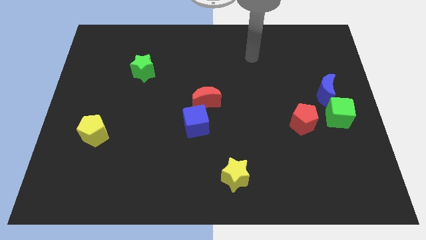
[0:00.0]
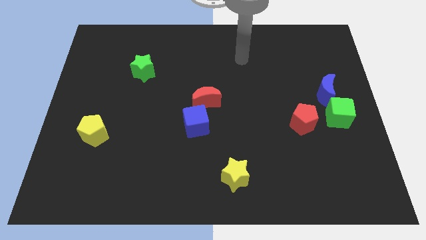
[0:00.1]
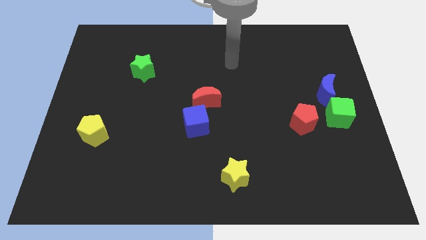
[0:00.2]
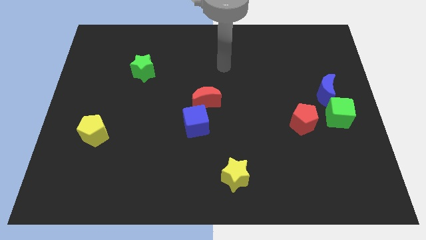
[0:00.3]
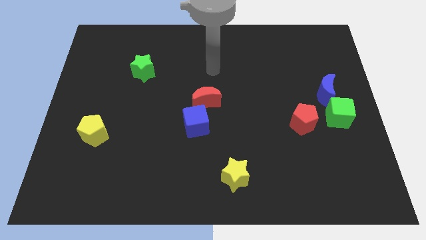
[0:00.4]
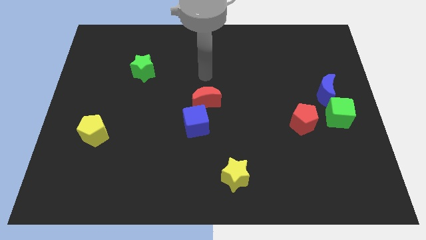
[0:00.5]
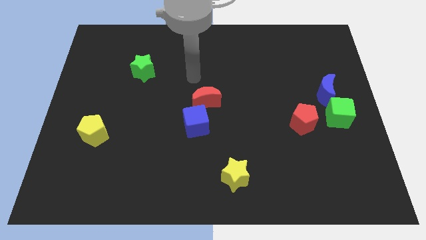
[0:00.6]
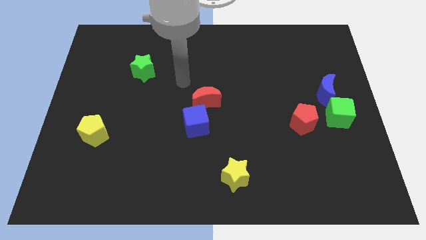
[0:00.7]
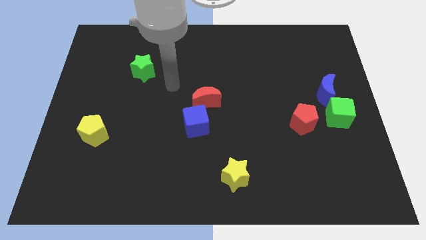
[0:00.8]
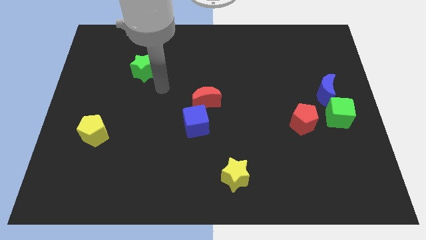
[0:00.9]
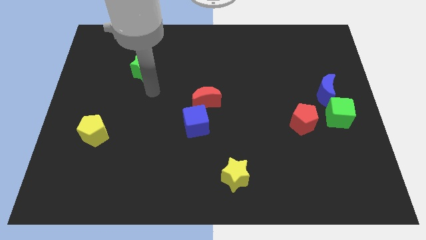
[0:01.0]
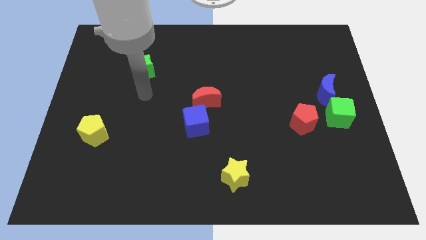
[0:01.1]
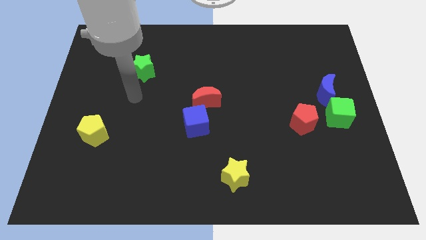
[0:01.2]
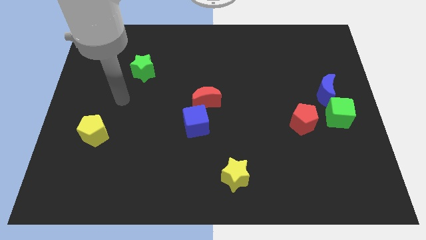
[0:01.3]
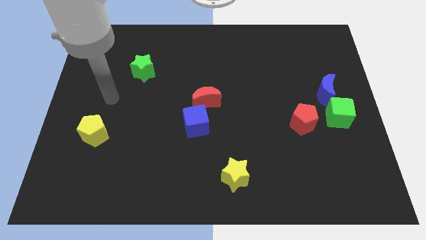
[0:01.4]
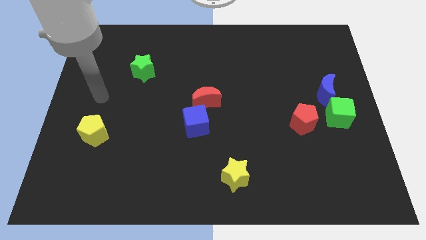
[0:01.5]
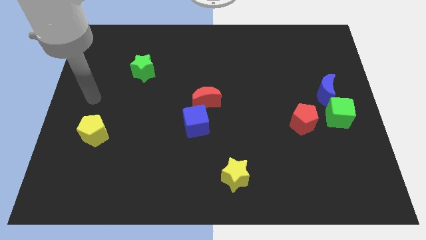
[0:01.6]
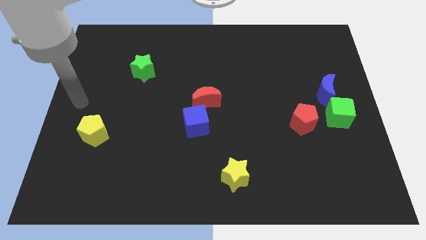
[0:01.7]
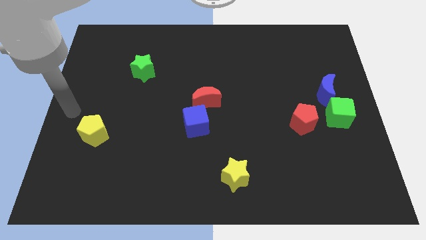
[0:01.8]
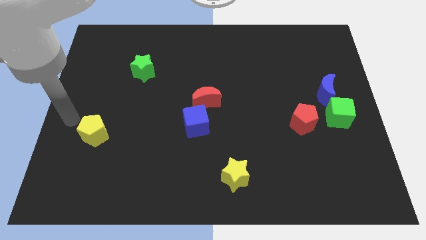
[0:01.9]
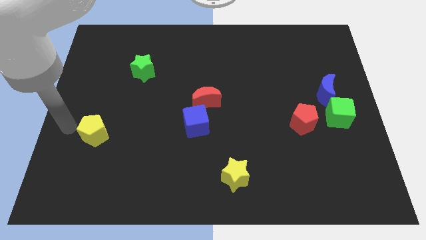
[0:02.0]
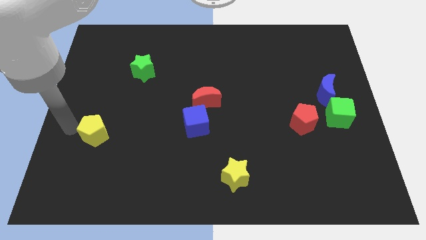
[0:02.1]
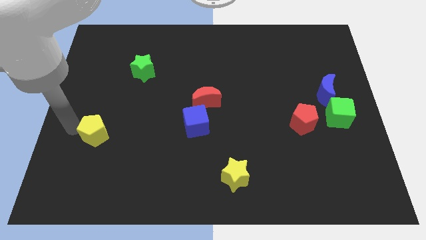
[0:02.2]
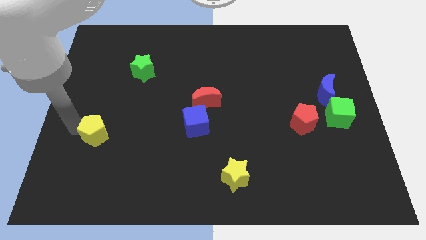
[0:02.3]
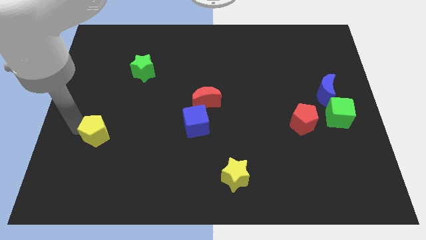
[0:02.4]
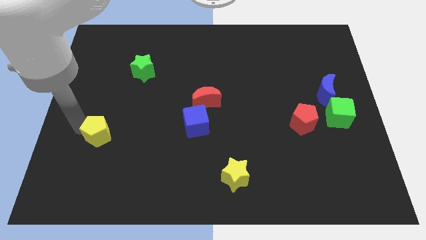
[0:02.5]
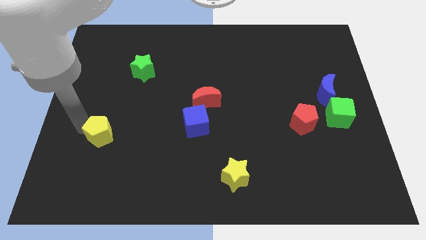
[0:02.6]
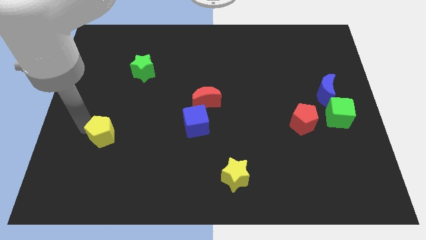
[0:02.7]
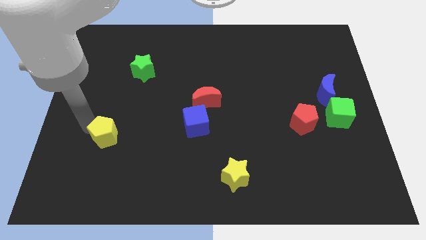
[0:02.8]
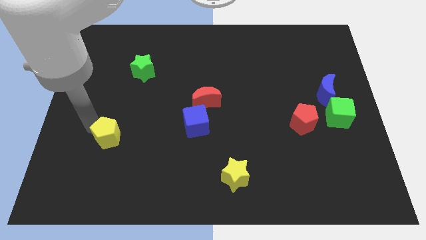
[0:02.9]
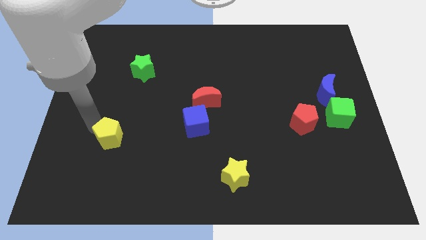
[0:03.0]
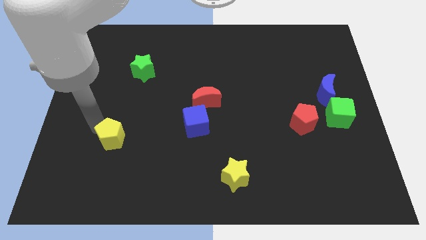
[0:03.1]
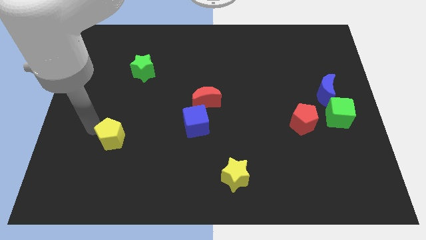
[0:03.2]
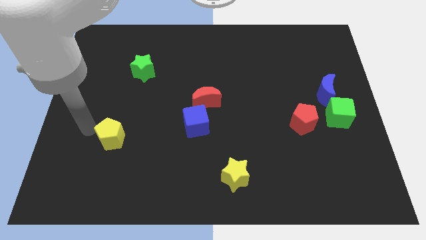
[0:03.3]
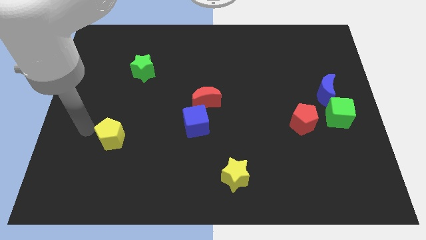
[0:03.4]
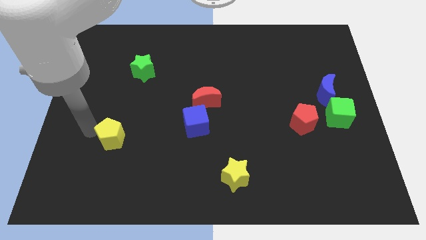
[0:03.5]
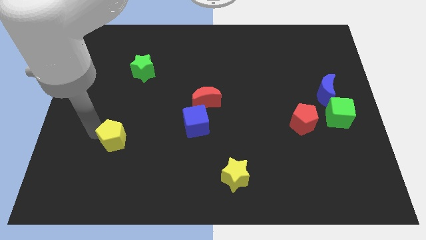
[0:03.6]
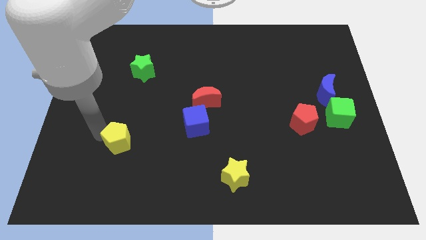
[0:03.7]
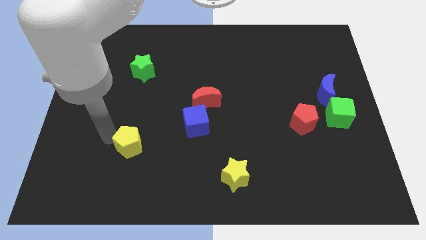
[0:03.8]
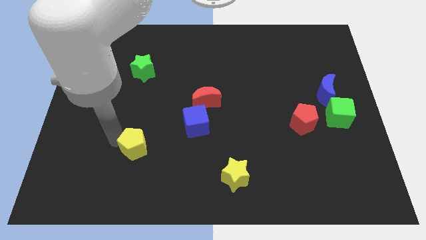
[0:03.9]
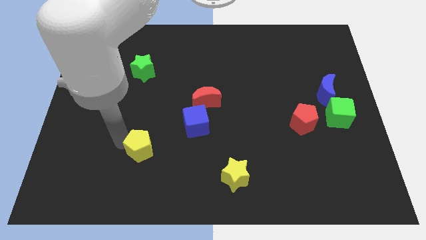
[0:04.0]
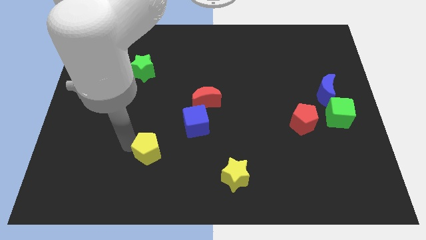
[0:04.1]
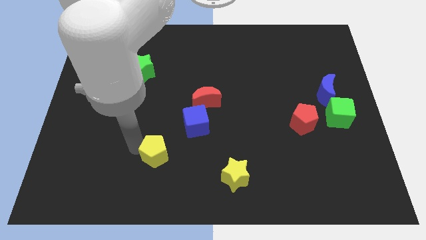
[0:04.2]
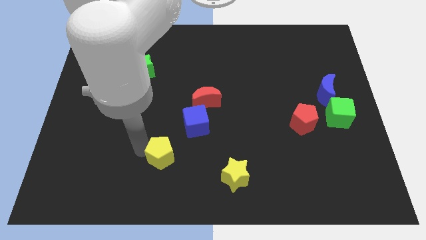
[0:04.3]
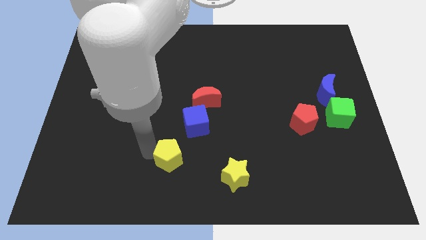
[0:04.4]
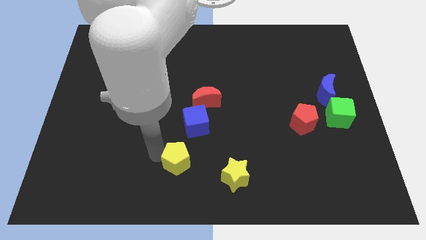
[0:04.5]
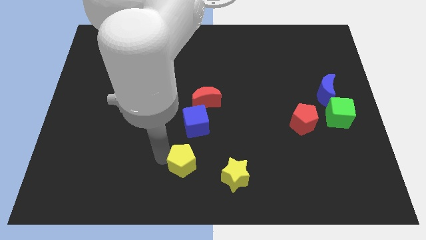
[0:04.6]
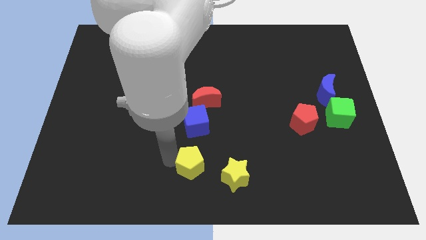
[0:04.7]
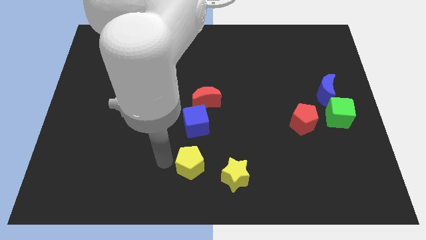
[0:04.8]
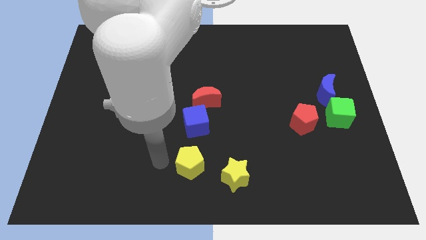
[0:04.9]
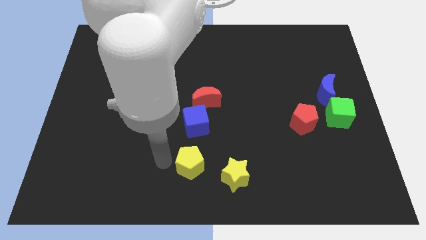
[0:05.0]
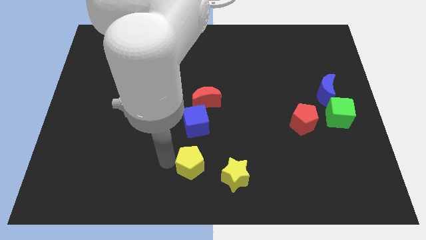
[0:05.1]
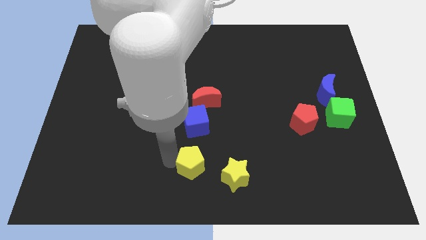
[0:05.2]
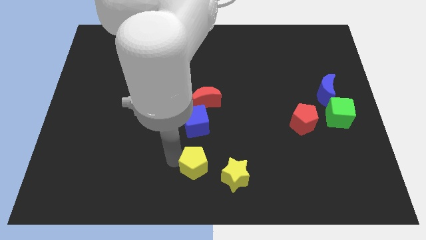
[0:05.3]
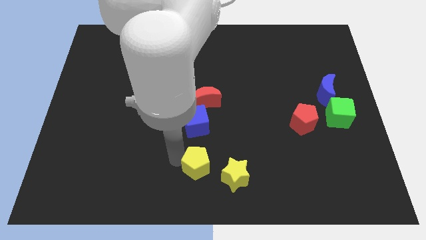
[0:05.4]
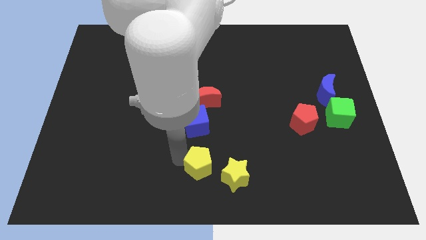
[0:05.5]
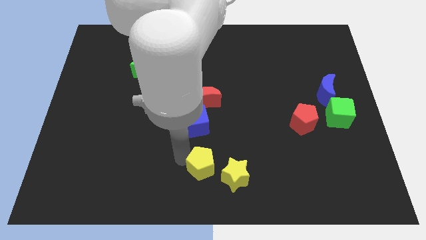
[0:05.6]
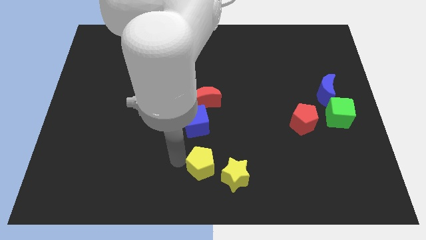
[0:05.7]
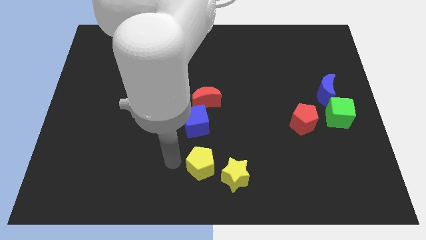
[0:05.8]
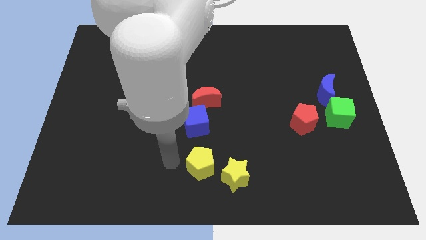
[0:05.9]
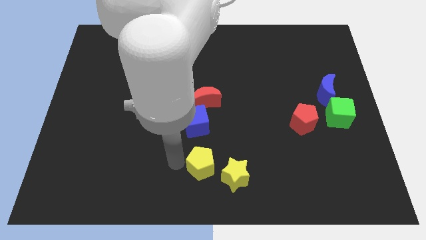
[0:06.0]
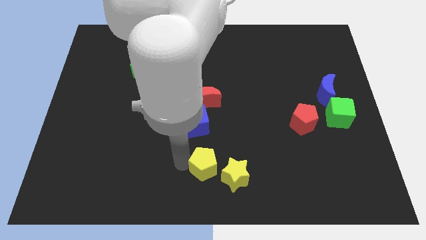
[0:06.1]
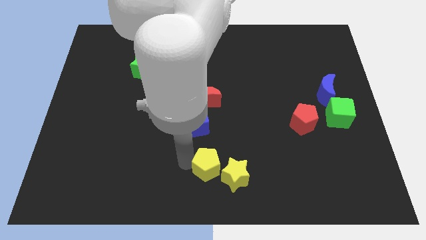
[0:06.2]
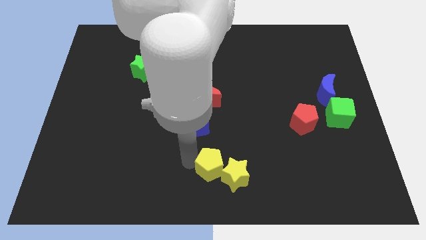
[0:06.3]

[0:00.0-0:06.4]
move the yellow pentagon towards the yellow star
